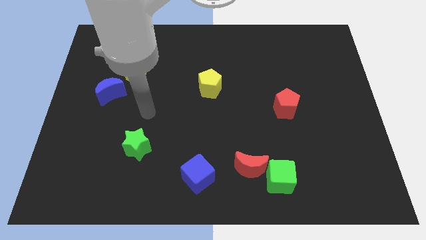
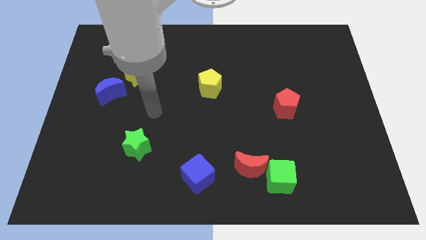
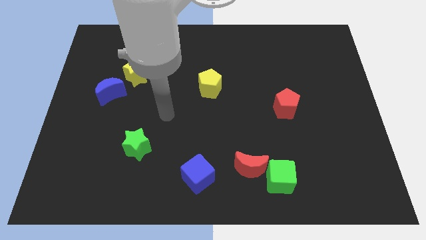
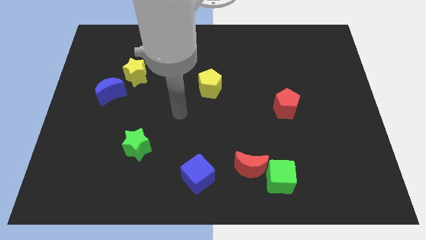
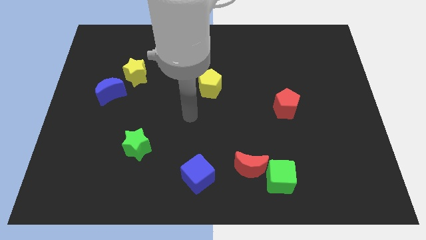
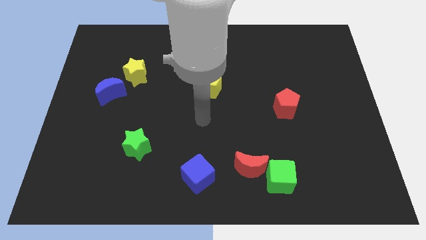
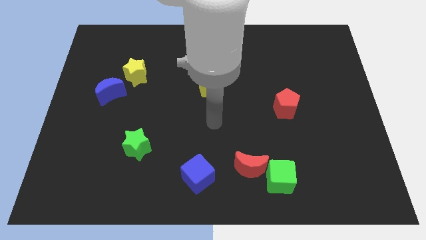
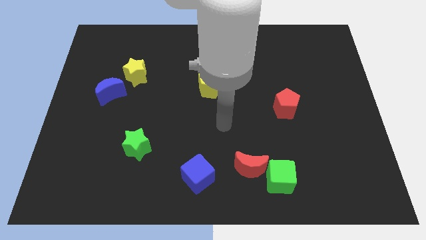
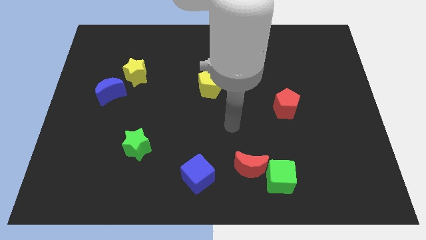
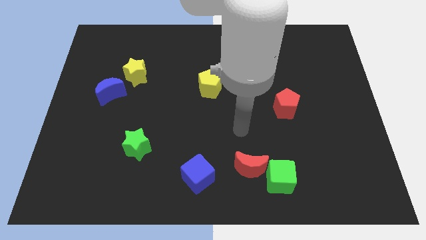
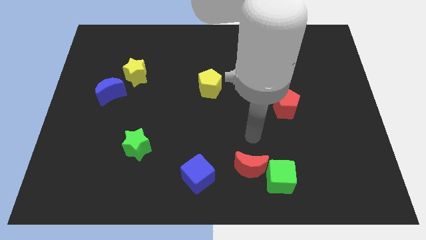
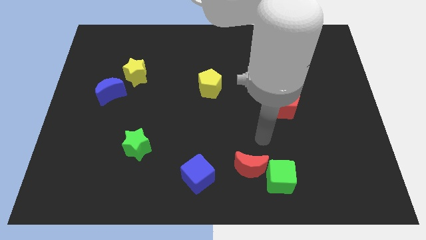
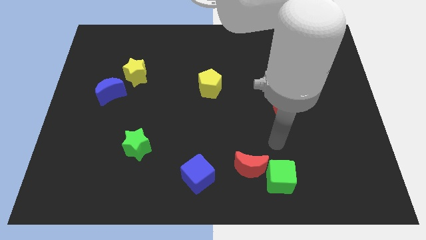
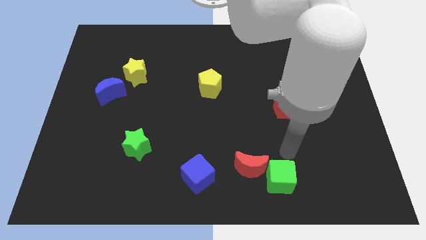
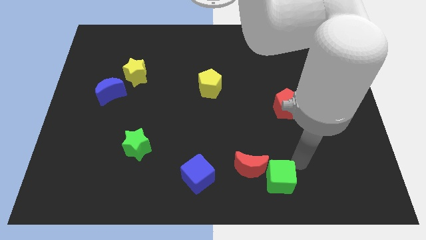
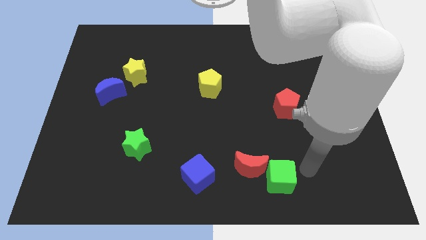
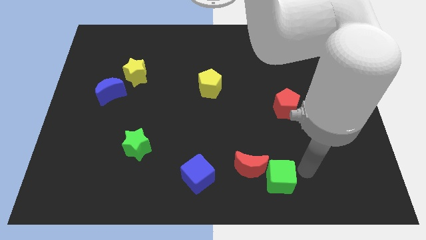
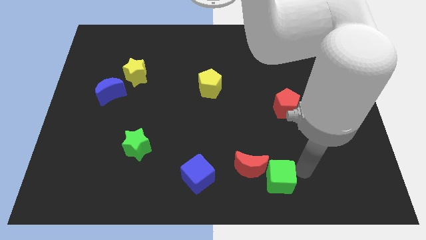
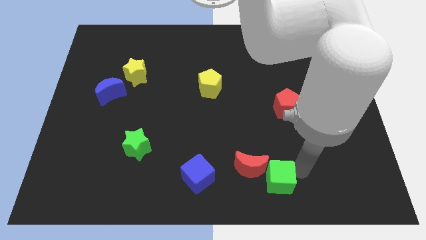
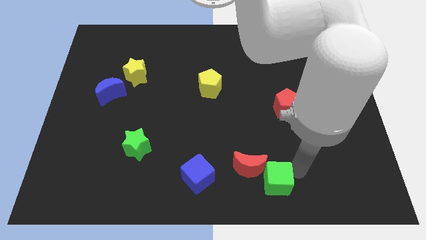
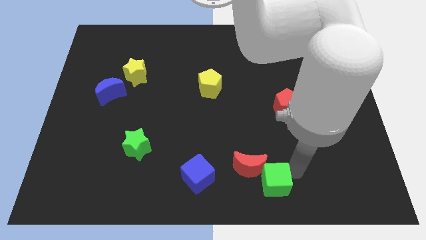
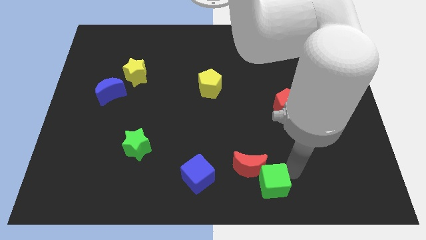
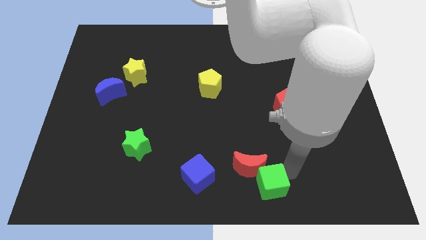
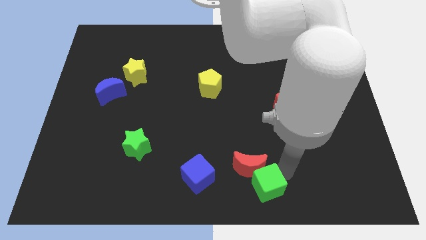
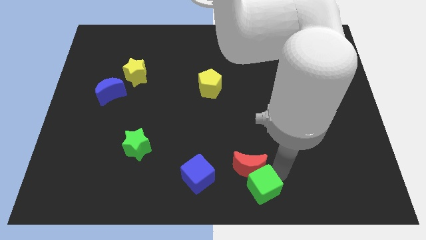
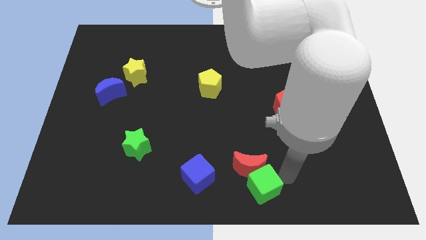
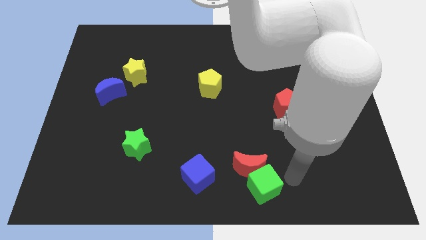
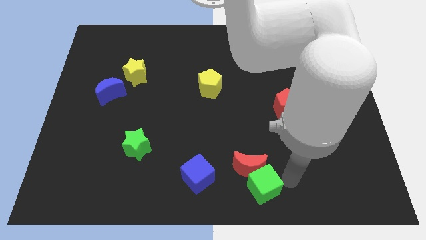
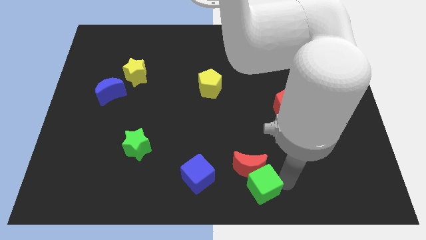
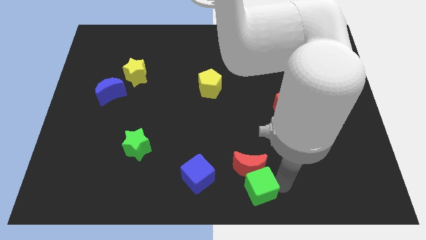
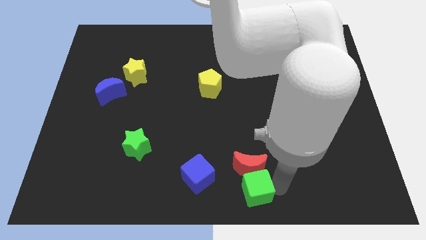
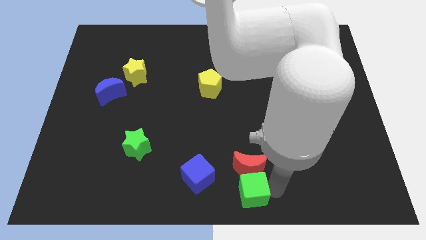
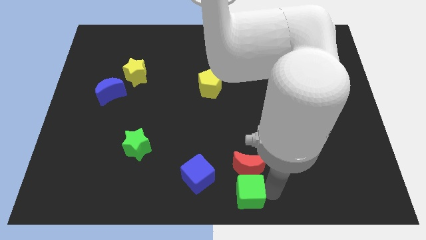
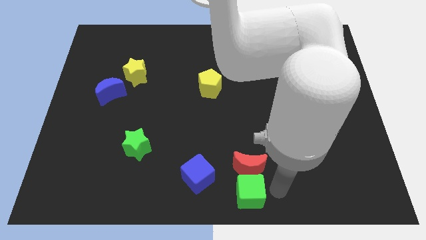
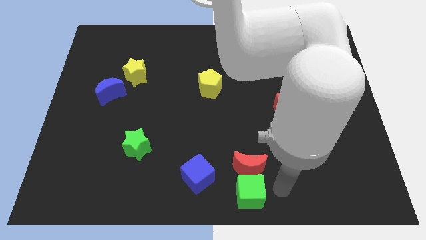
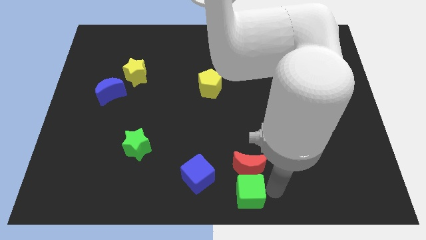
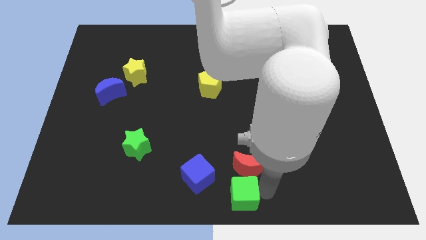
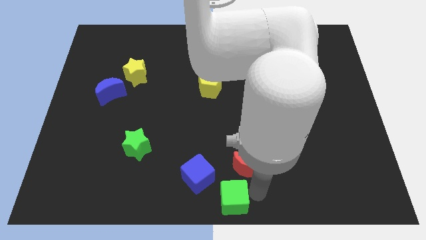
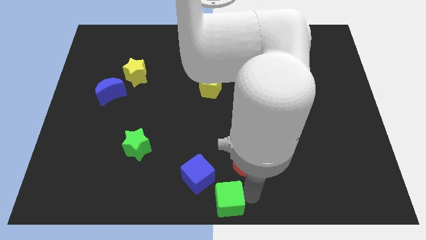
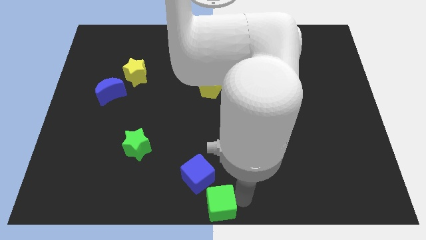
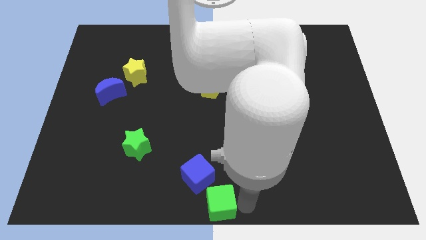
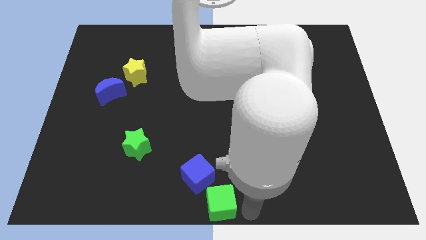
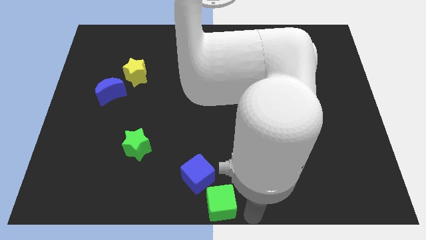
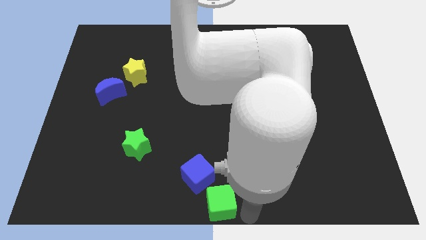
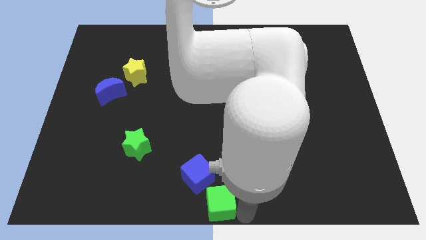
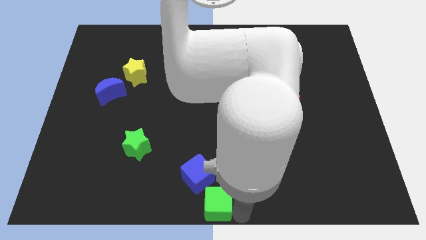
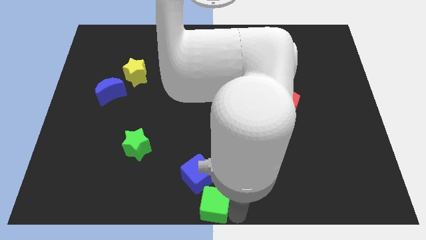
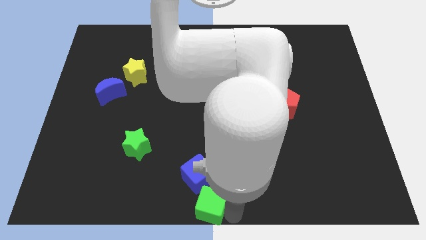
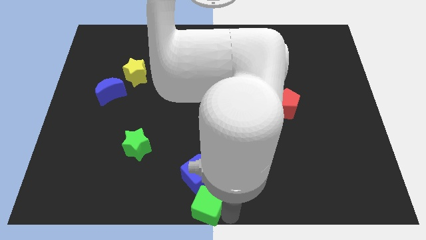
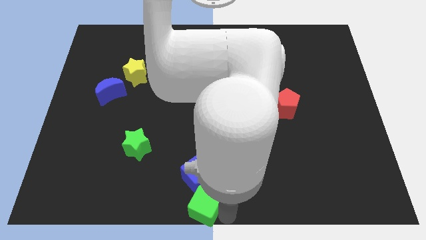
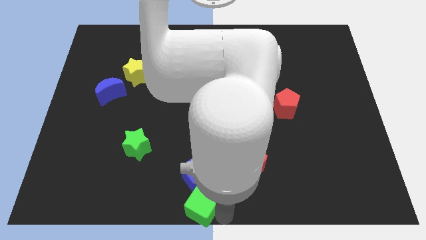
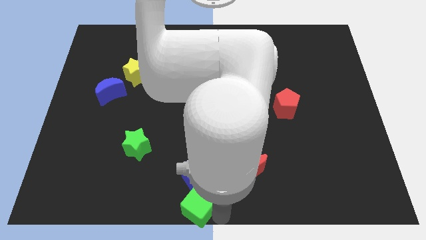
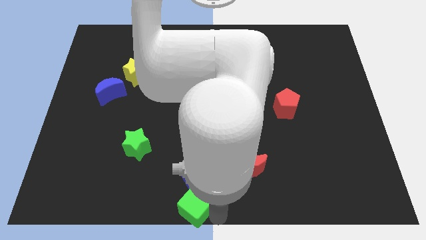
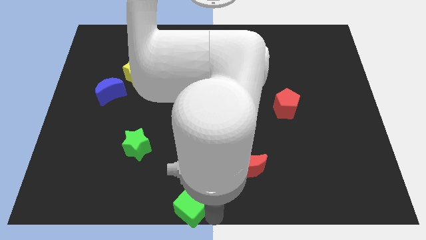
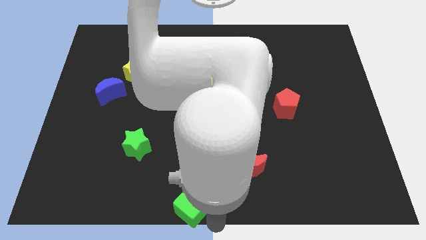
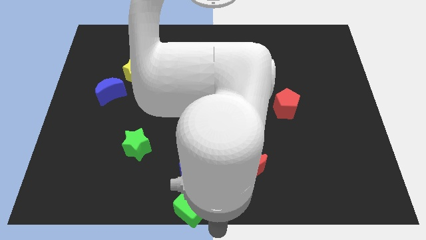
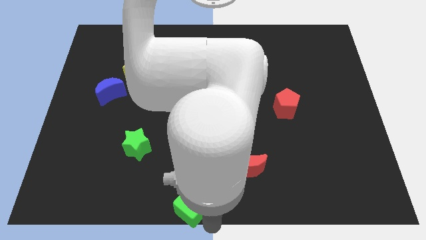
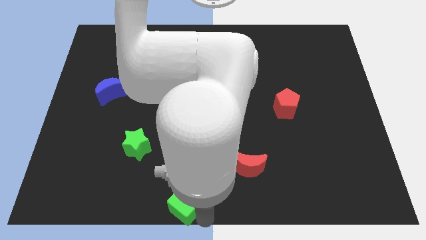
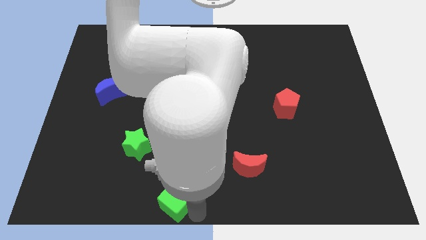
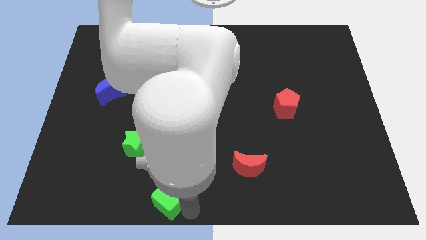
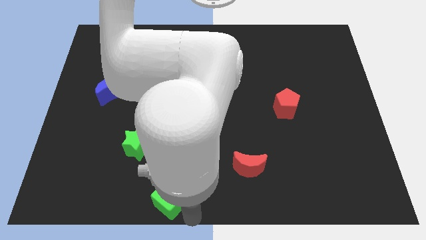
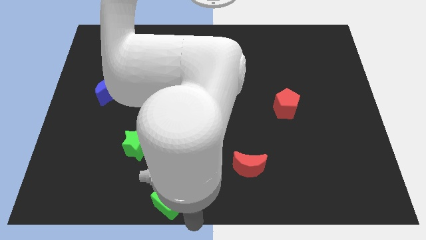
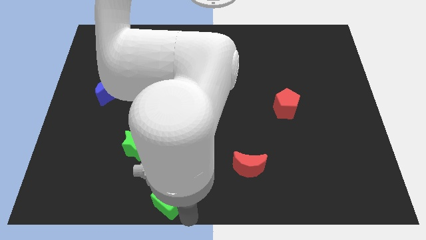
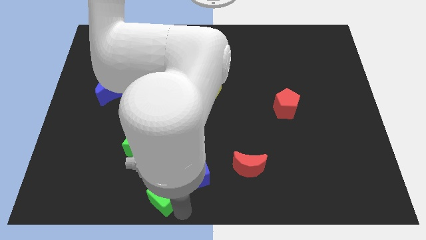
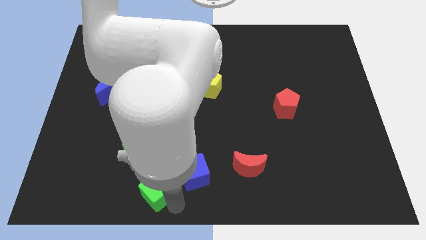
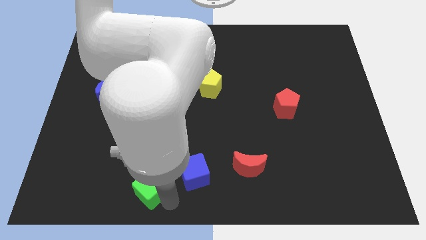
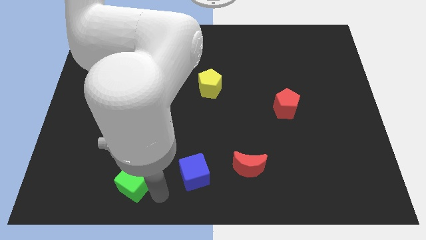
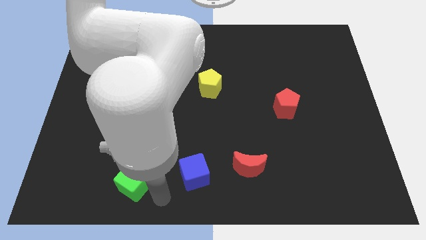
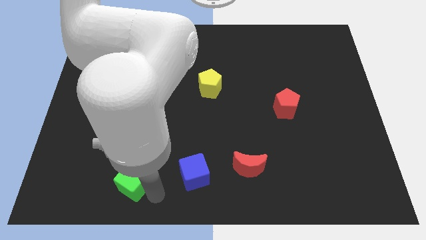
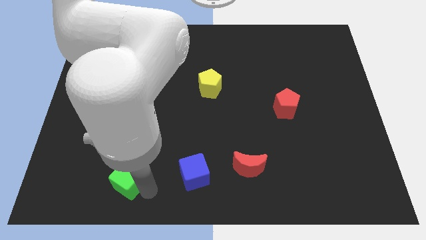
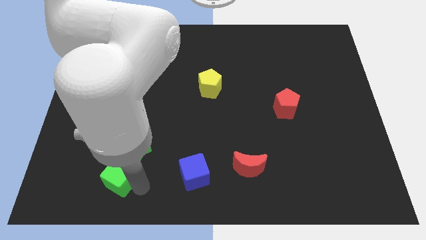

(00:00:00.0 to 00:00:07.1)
move the green cube diagonally down and to the left of the green star

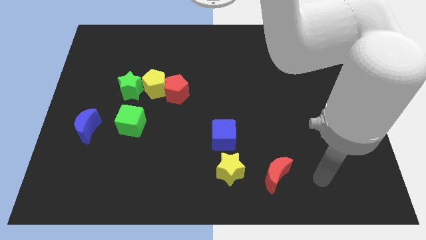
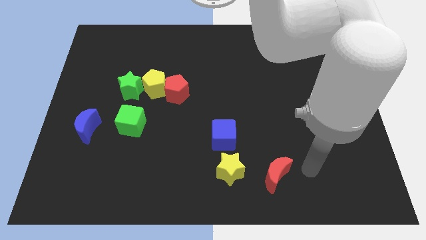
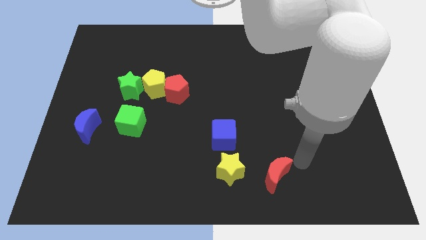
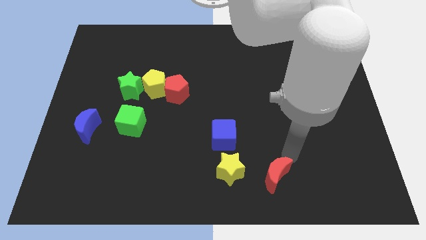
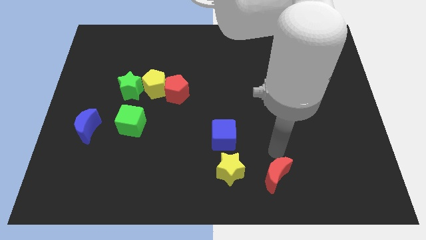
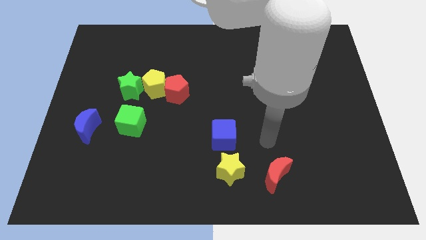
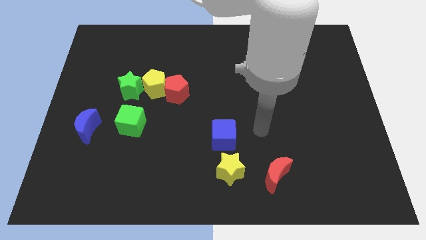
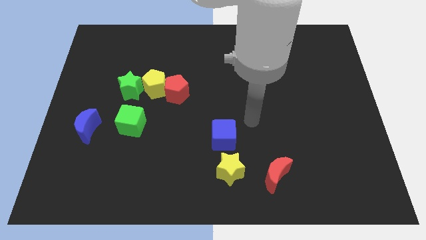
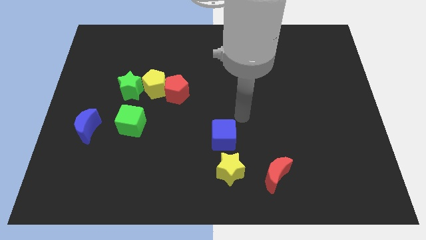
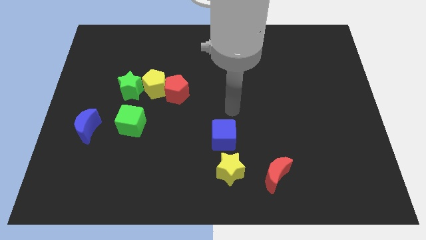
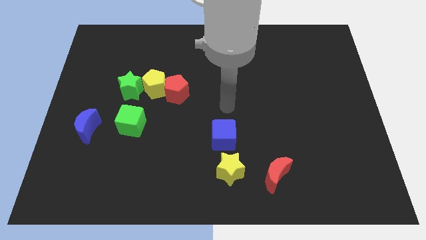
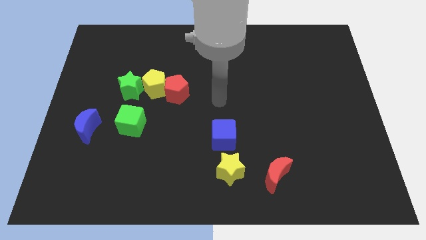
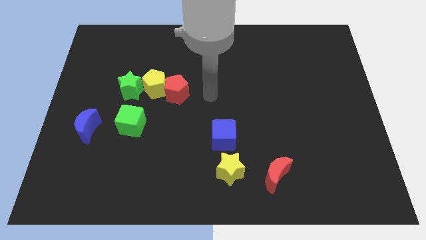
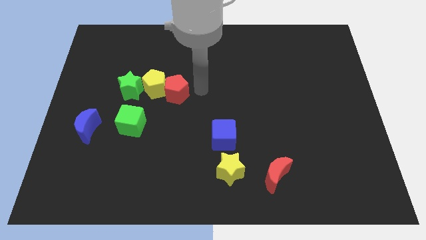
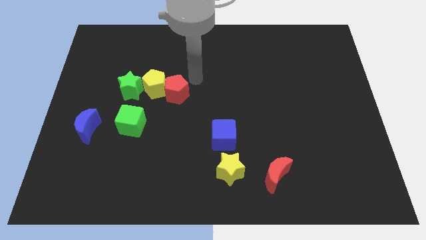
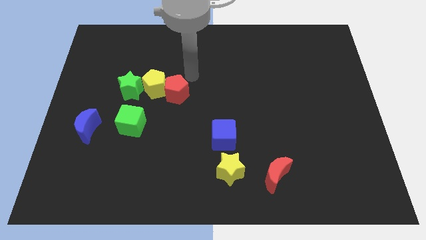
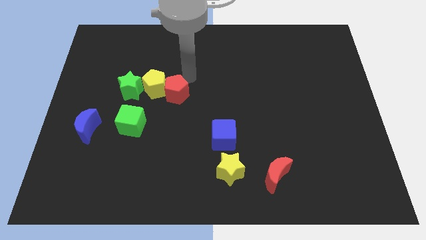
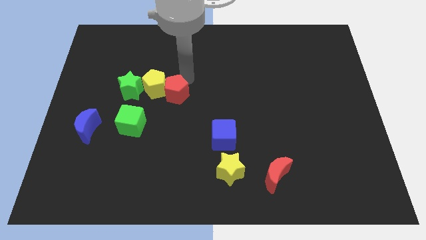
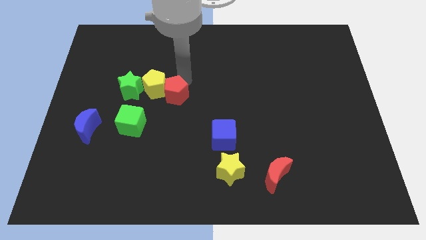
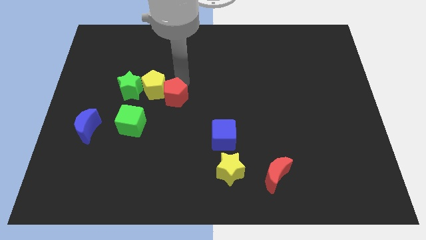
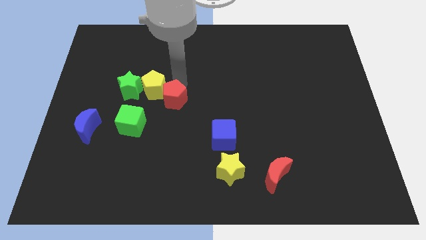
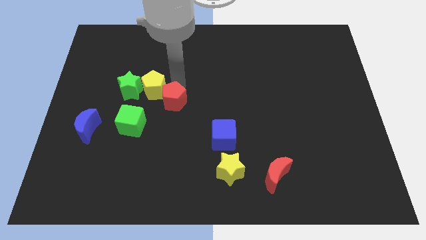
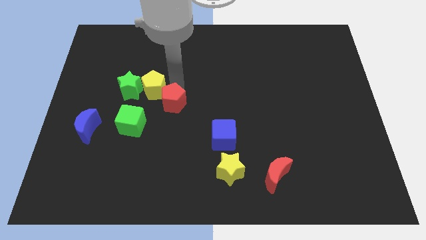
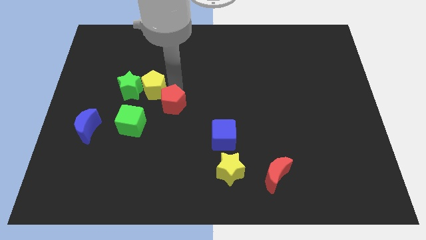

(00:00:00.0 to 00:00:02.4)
slide the red pentagon to the bottom side of the yellow pentagon
